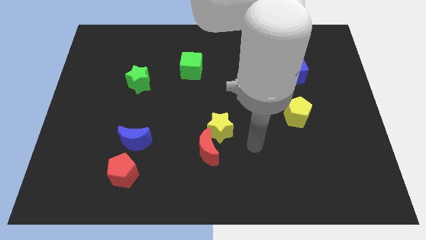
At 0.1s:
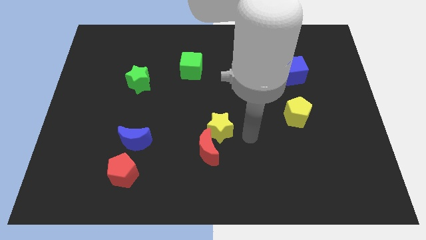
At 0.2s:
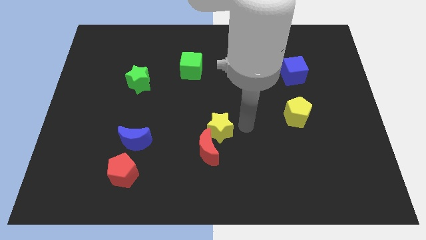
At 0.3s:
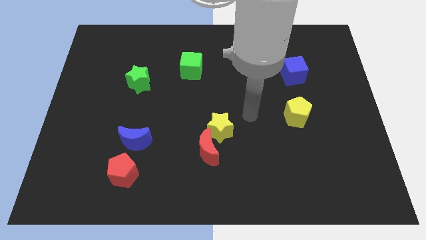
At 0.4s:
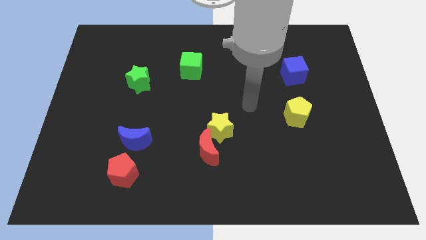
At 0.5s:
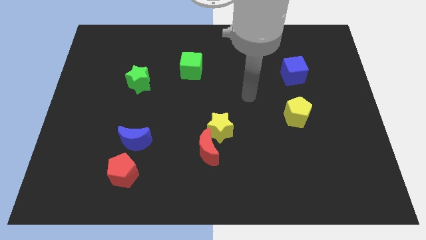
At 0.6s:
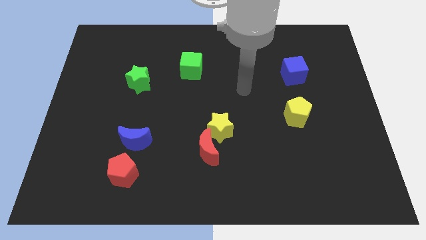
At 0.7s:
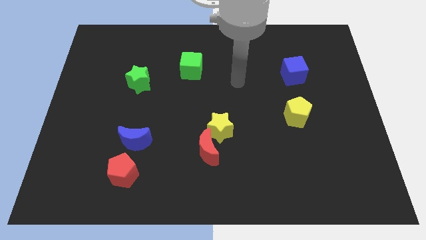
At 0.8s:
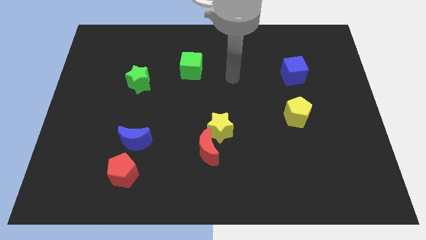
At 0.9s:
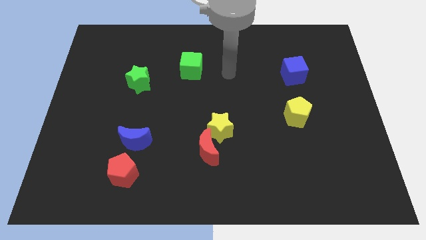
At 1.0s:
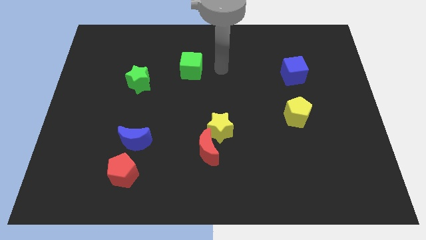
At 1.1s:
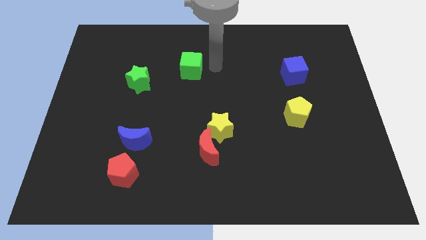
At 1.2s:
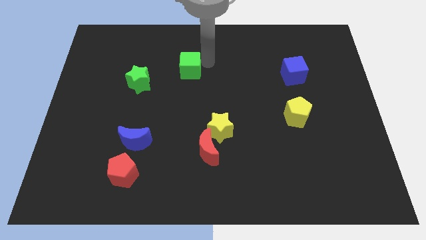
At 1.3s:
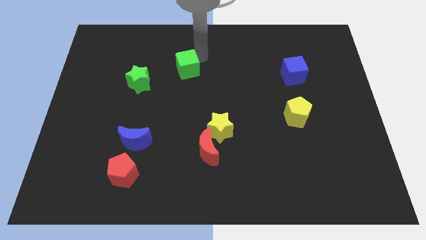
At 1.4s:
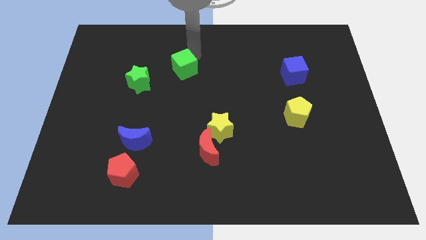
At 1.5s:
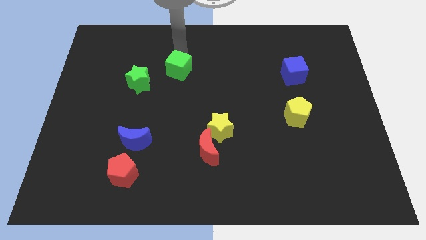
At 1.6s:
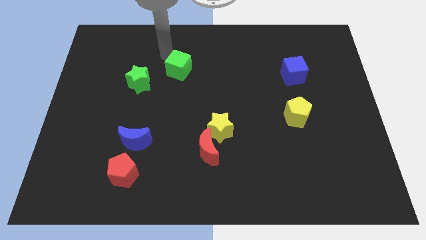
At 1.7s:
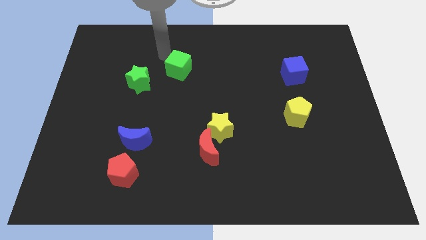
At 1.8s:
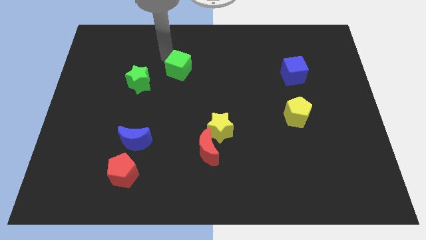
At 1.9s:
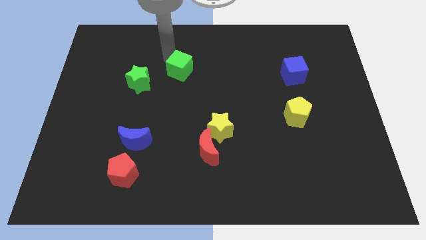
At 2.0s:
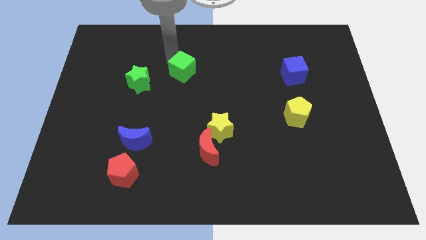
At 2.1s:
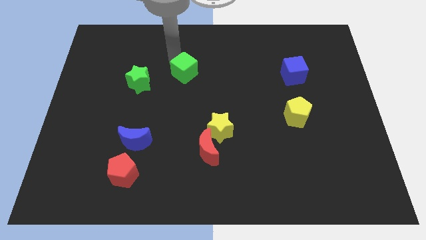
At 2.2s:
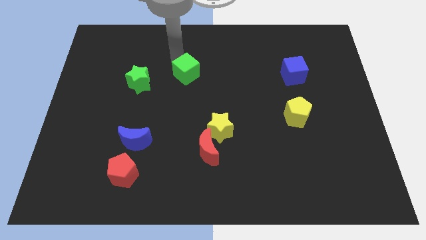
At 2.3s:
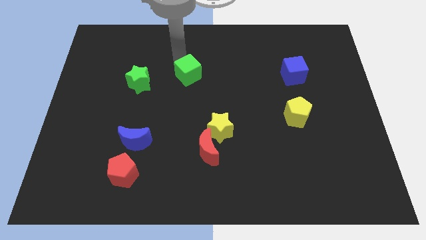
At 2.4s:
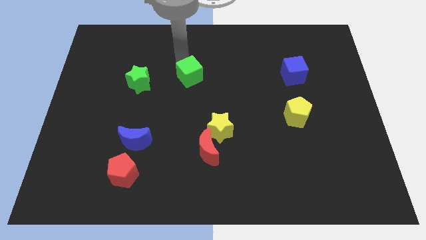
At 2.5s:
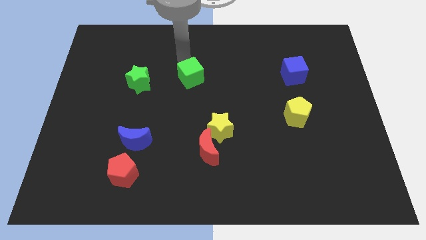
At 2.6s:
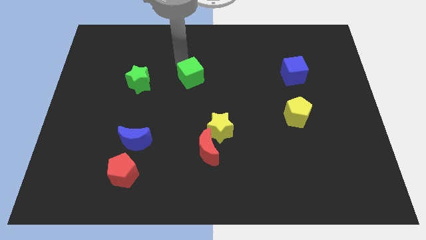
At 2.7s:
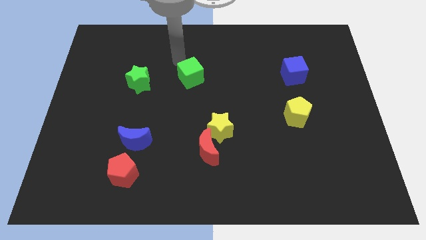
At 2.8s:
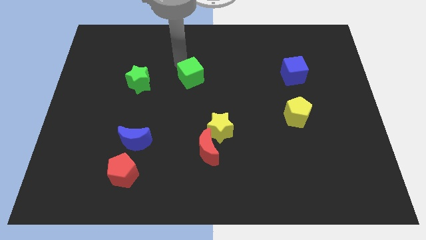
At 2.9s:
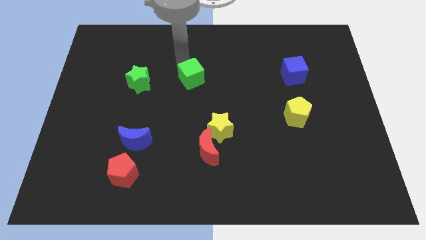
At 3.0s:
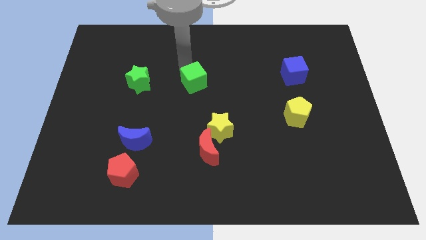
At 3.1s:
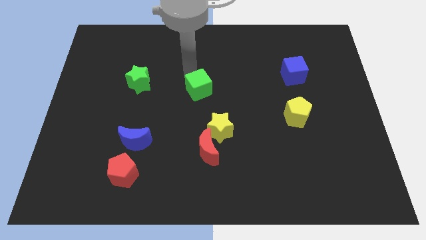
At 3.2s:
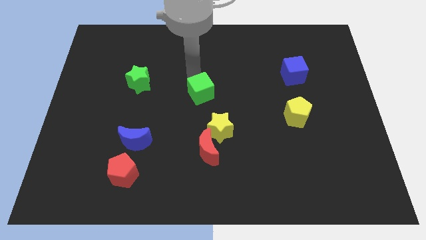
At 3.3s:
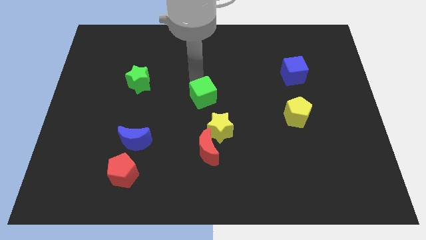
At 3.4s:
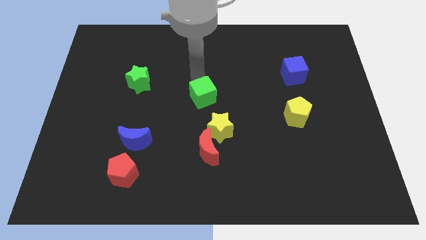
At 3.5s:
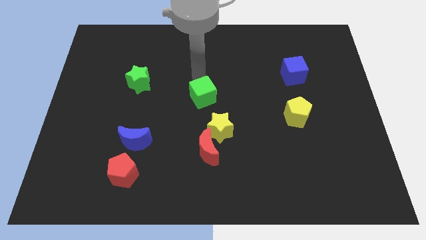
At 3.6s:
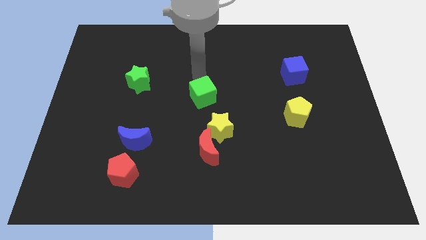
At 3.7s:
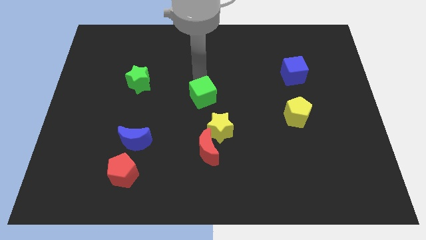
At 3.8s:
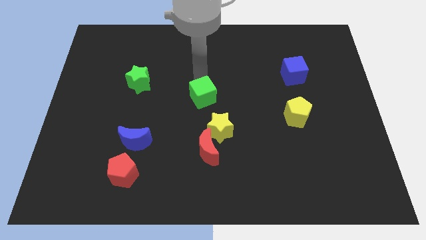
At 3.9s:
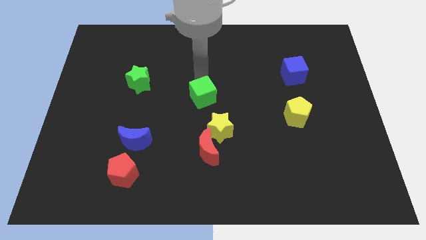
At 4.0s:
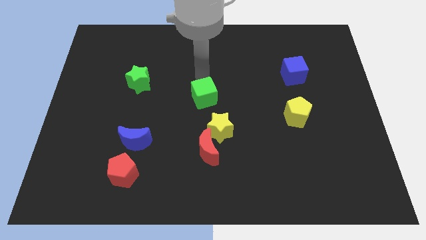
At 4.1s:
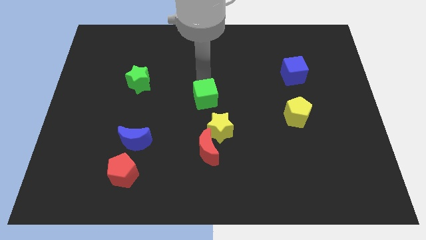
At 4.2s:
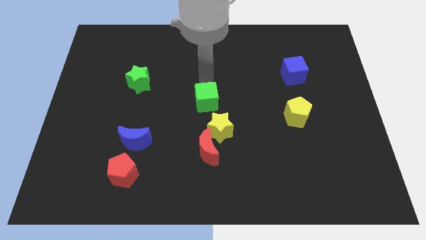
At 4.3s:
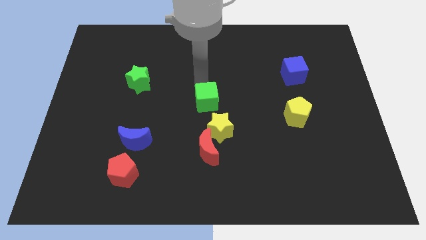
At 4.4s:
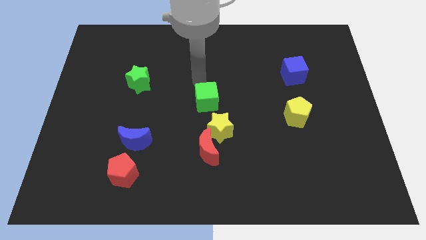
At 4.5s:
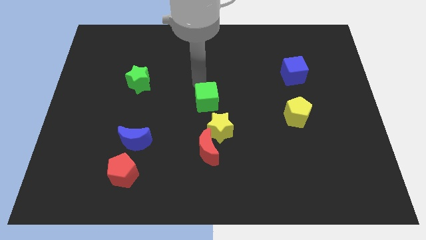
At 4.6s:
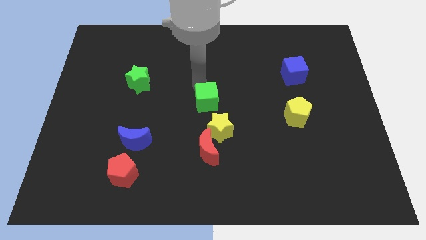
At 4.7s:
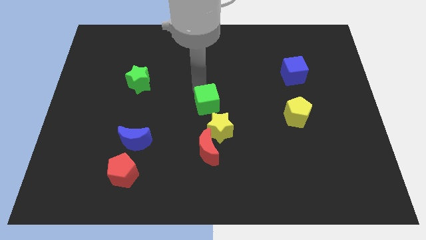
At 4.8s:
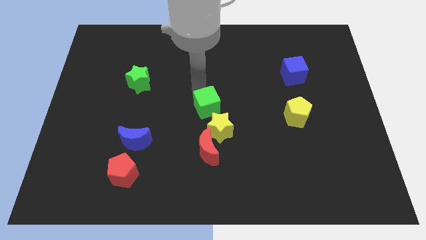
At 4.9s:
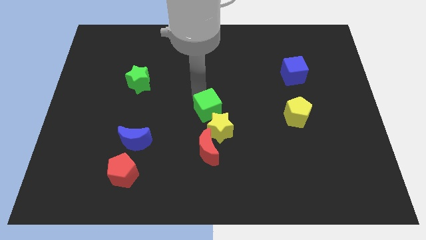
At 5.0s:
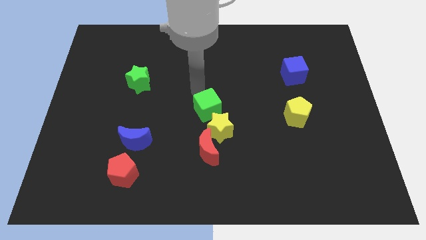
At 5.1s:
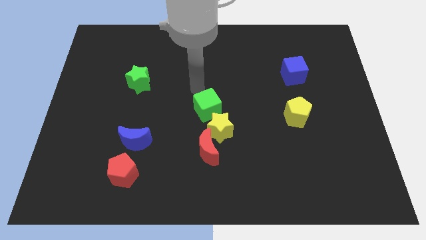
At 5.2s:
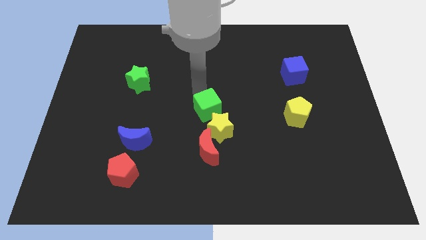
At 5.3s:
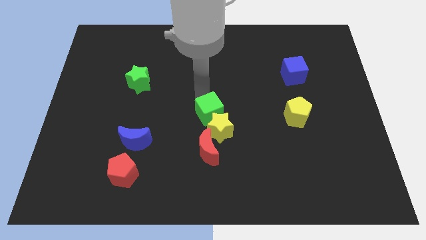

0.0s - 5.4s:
slide the green cube towards the yellow star

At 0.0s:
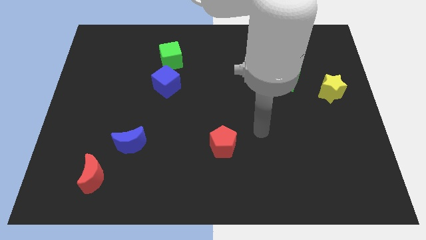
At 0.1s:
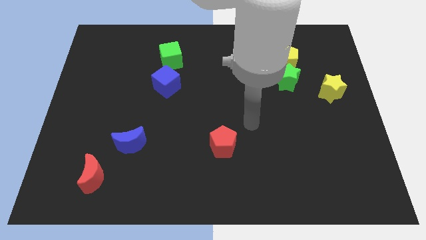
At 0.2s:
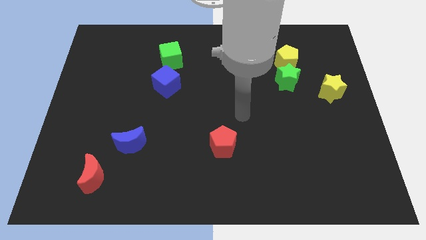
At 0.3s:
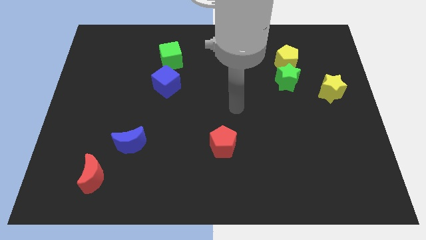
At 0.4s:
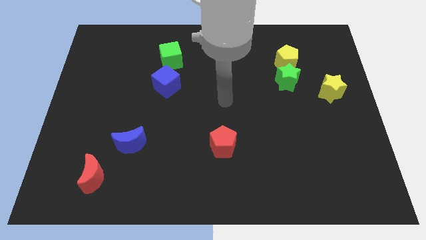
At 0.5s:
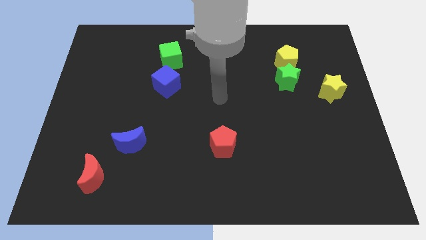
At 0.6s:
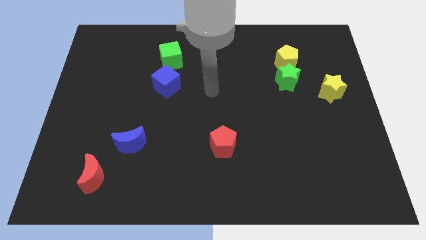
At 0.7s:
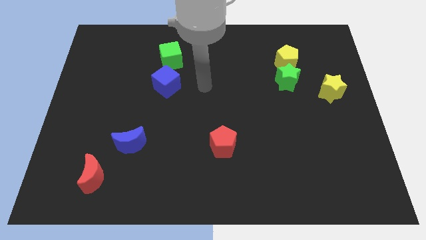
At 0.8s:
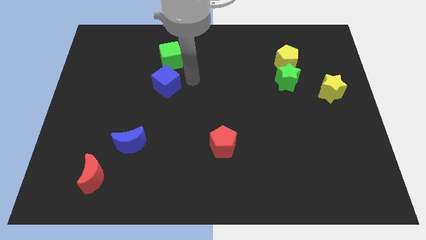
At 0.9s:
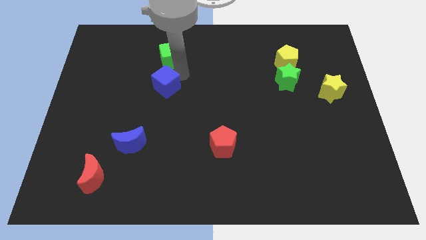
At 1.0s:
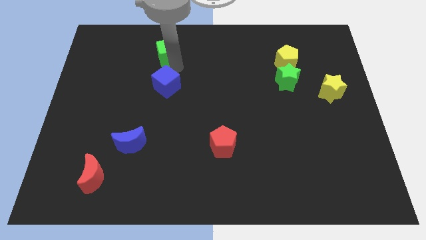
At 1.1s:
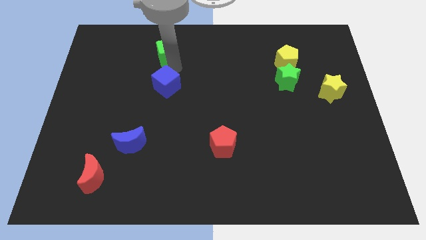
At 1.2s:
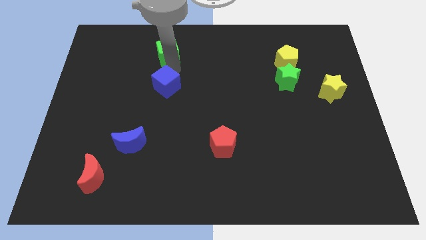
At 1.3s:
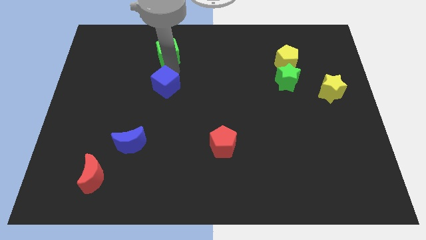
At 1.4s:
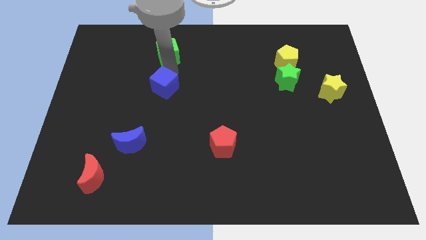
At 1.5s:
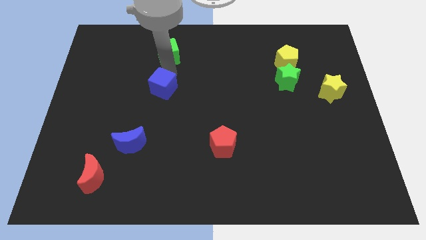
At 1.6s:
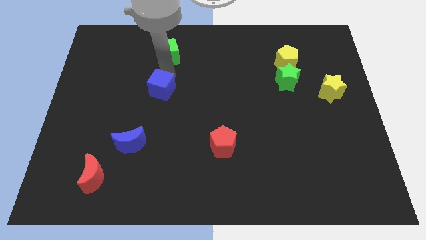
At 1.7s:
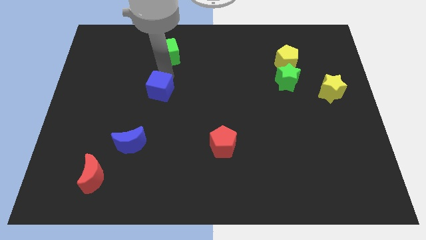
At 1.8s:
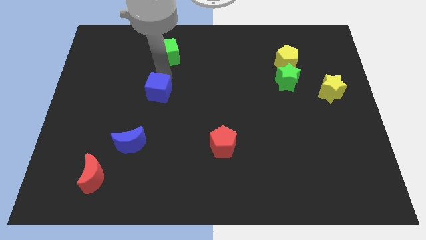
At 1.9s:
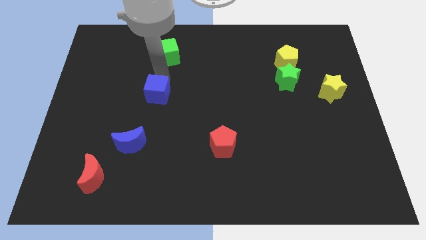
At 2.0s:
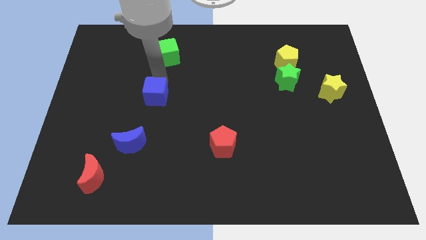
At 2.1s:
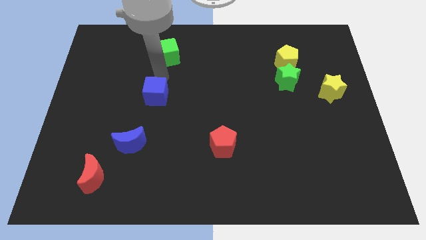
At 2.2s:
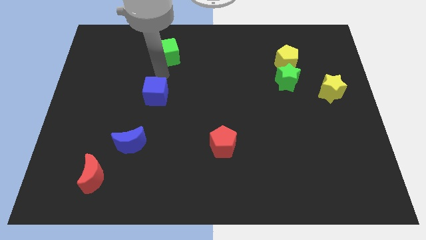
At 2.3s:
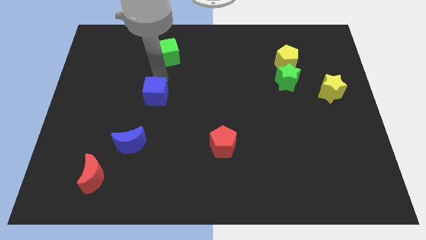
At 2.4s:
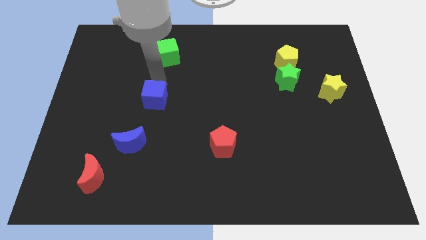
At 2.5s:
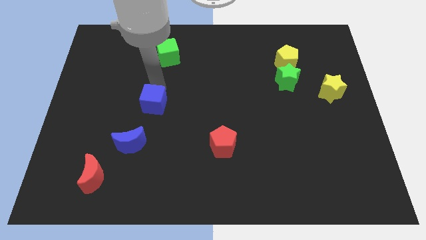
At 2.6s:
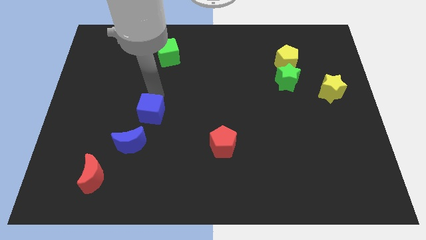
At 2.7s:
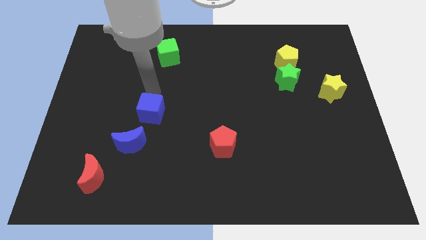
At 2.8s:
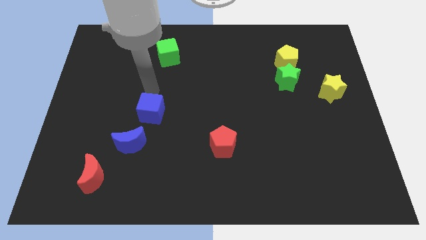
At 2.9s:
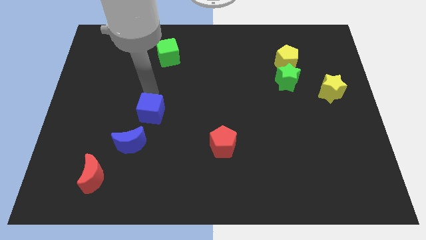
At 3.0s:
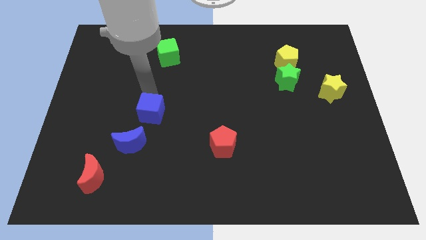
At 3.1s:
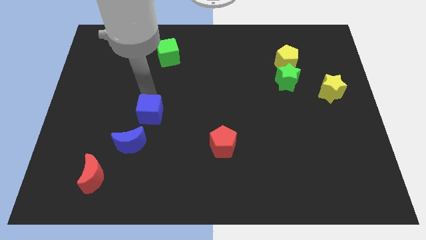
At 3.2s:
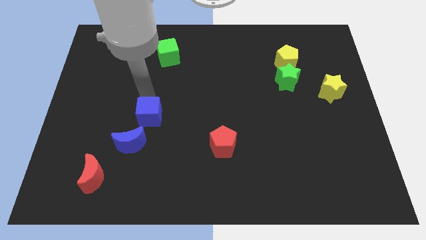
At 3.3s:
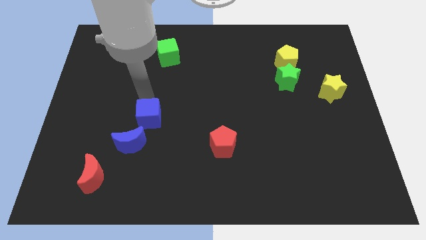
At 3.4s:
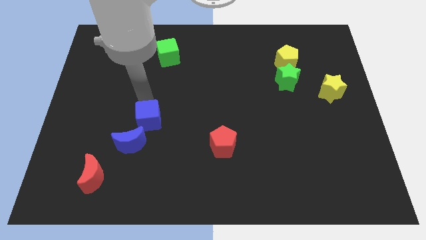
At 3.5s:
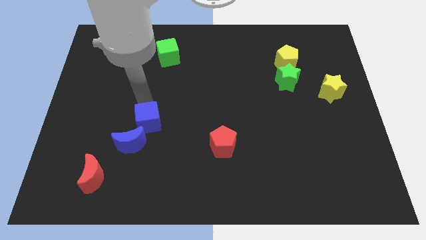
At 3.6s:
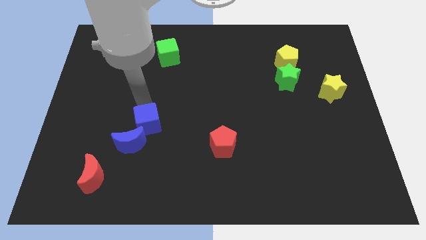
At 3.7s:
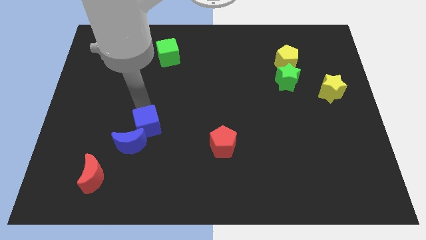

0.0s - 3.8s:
slide the blue cube next to the blue moon
